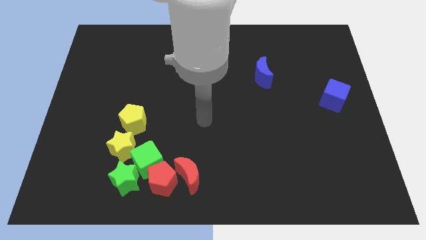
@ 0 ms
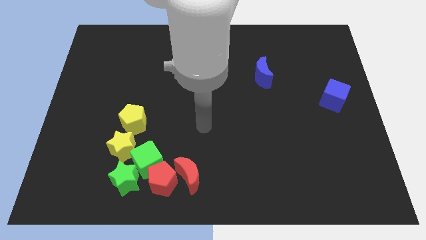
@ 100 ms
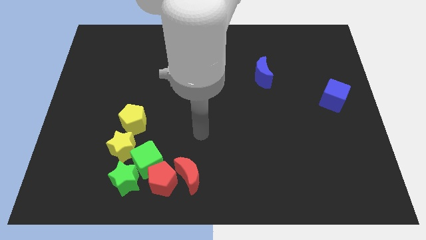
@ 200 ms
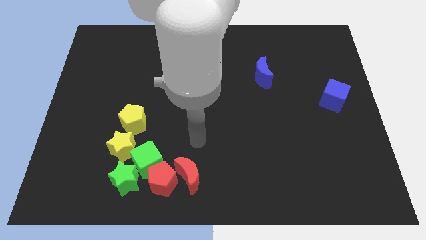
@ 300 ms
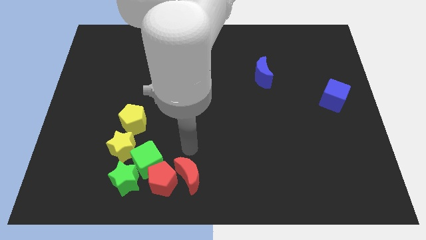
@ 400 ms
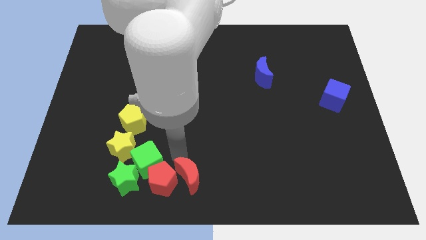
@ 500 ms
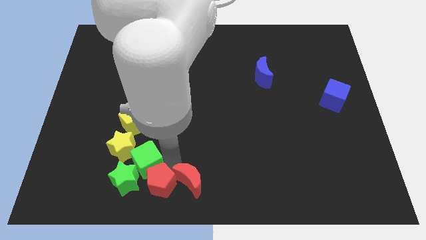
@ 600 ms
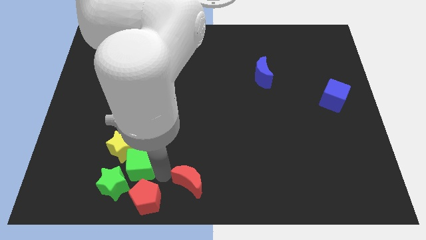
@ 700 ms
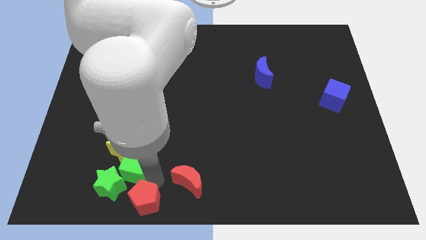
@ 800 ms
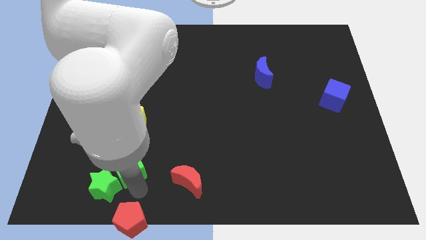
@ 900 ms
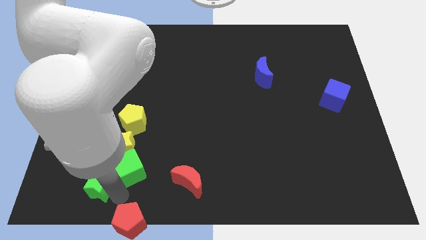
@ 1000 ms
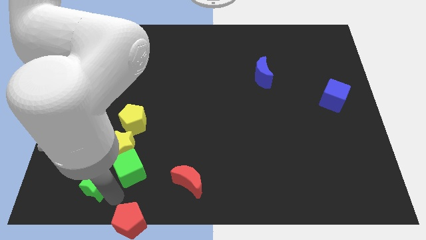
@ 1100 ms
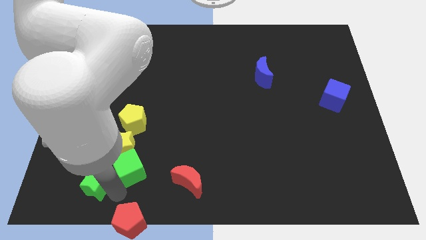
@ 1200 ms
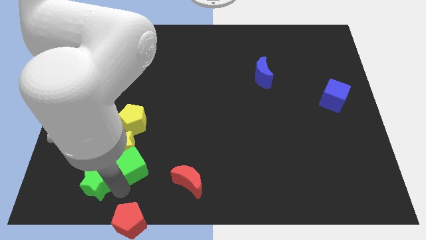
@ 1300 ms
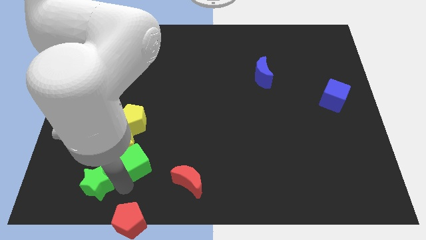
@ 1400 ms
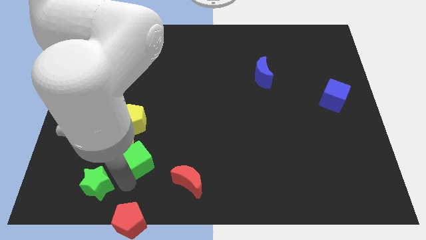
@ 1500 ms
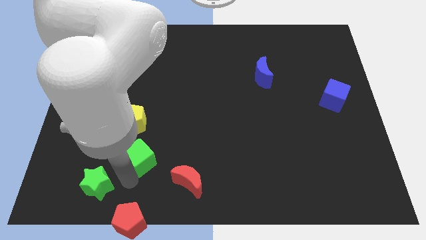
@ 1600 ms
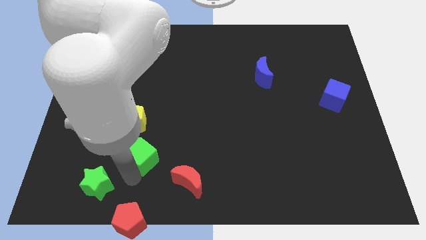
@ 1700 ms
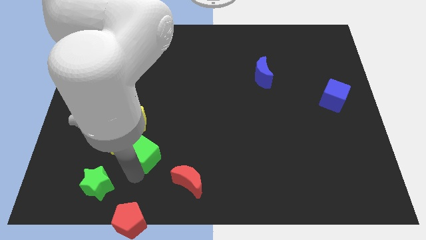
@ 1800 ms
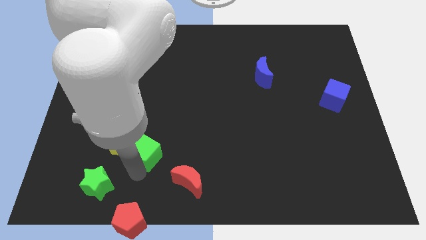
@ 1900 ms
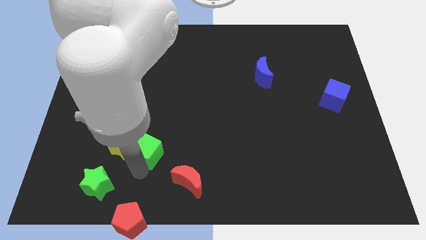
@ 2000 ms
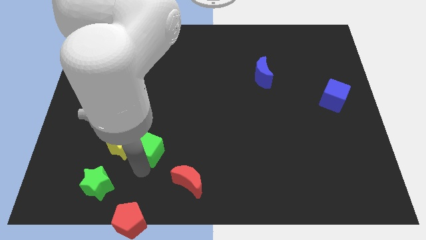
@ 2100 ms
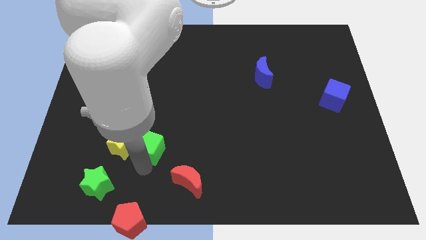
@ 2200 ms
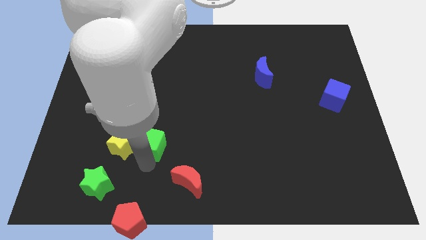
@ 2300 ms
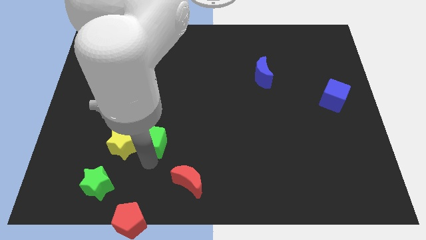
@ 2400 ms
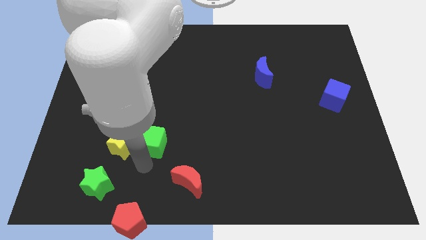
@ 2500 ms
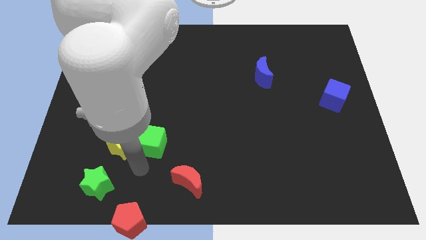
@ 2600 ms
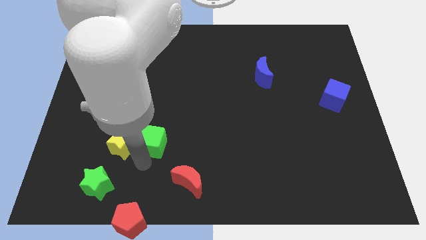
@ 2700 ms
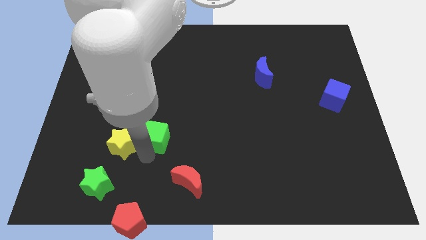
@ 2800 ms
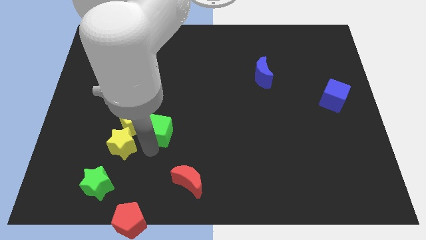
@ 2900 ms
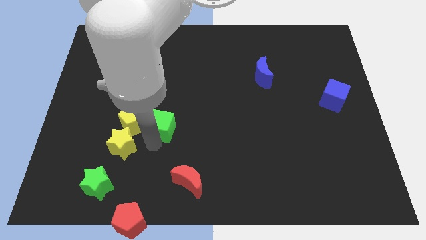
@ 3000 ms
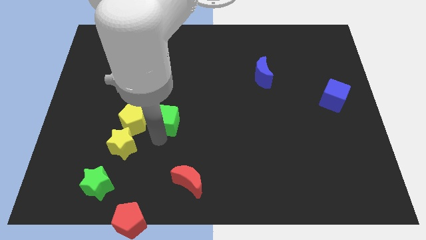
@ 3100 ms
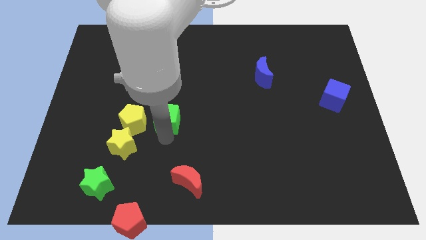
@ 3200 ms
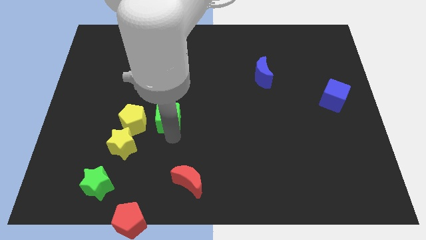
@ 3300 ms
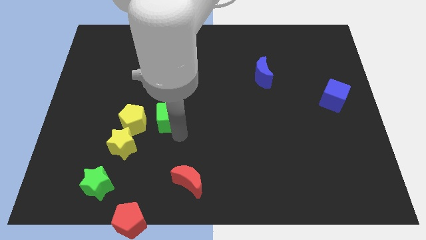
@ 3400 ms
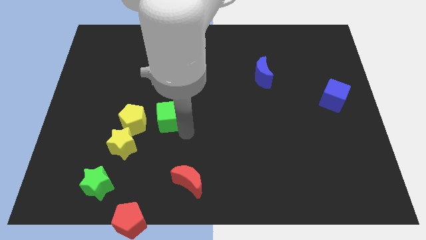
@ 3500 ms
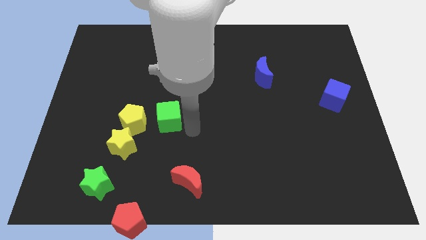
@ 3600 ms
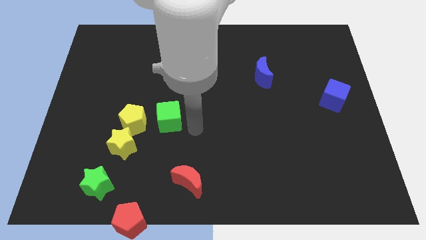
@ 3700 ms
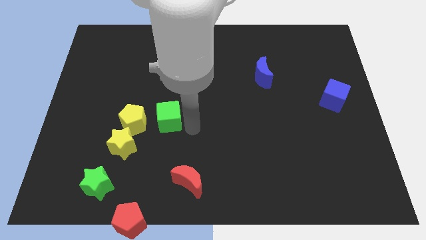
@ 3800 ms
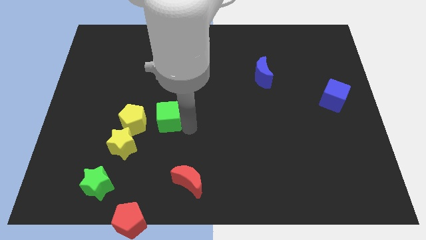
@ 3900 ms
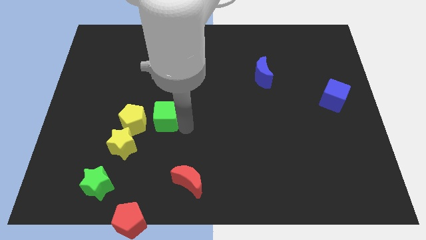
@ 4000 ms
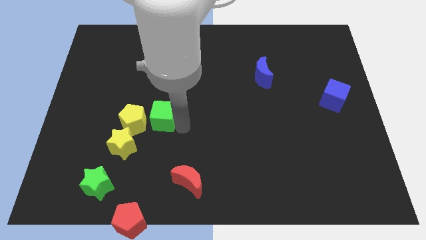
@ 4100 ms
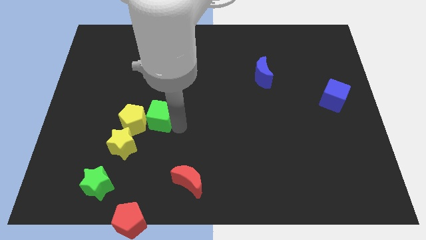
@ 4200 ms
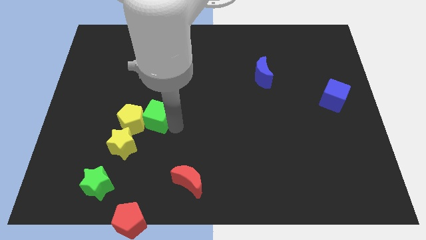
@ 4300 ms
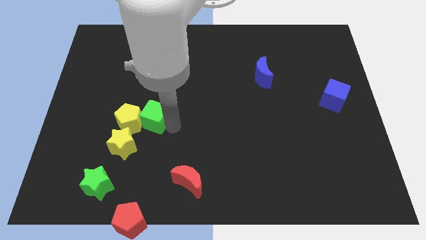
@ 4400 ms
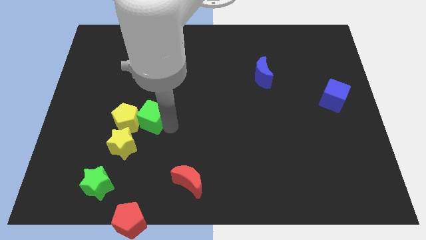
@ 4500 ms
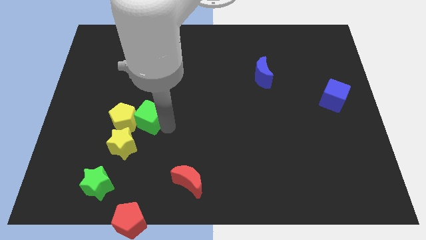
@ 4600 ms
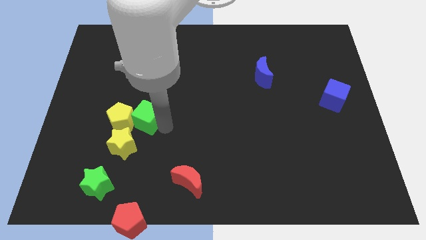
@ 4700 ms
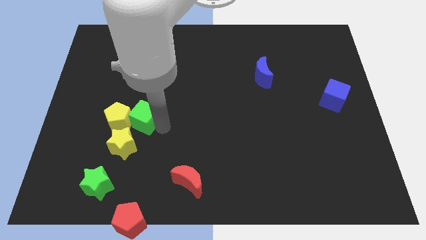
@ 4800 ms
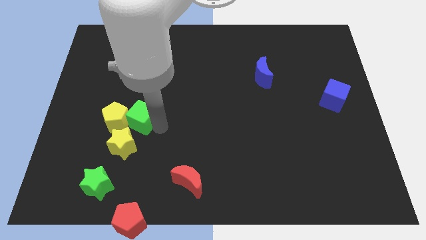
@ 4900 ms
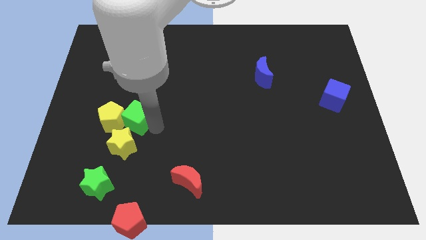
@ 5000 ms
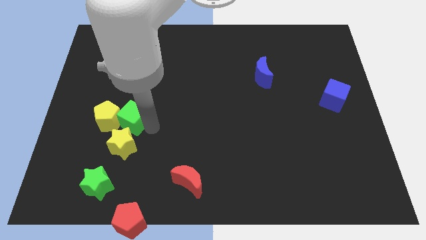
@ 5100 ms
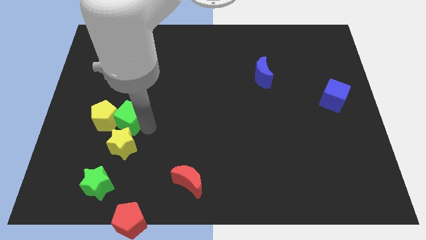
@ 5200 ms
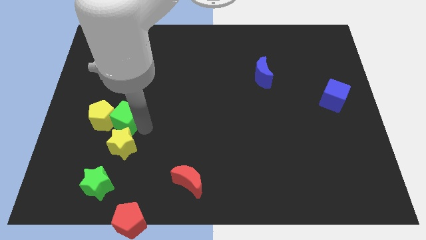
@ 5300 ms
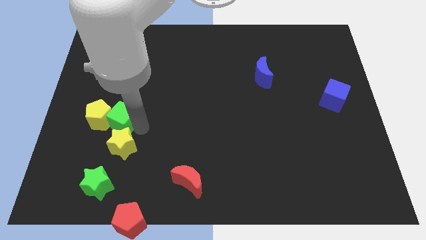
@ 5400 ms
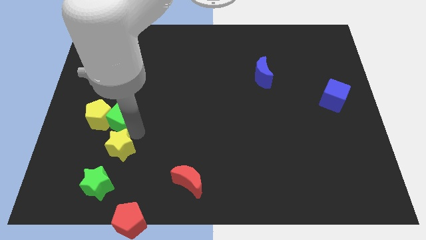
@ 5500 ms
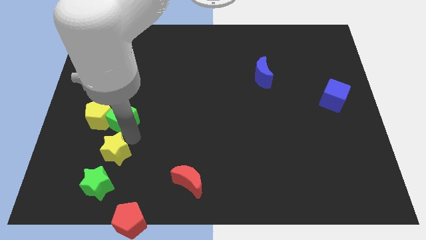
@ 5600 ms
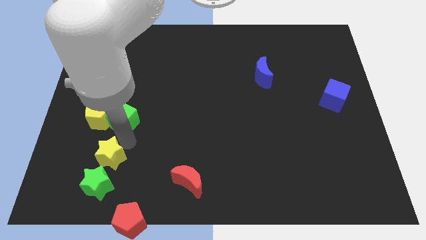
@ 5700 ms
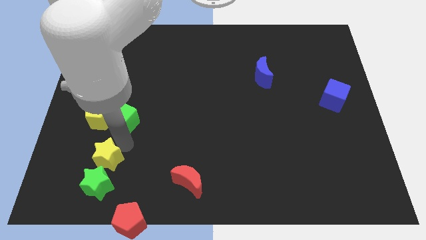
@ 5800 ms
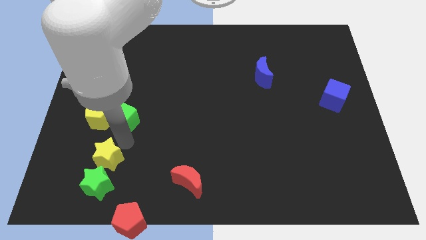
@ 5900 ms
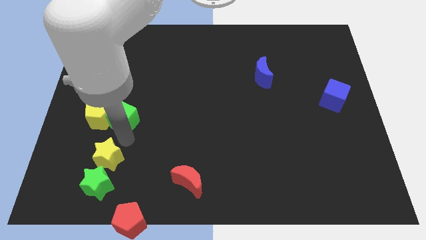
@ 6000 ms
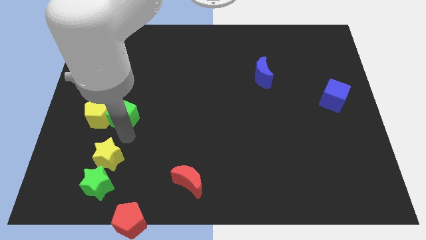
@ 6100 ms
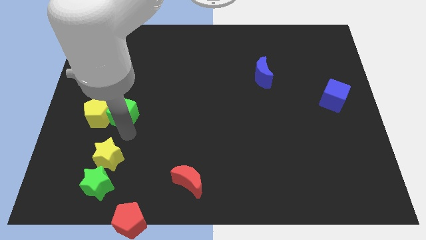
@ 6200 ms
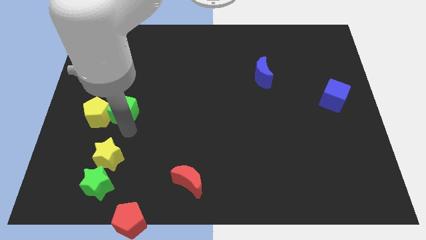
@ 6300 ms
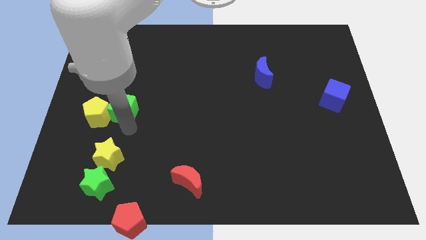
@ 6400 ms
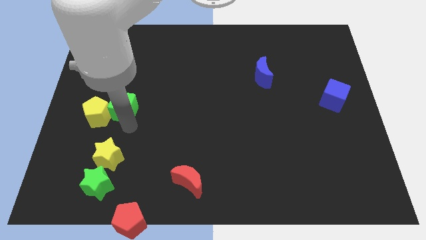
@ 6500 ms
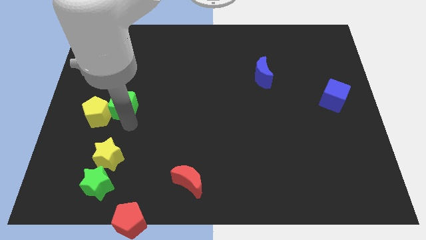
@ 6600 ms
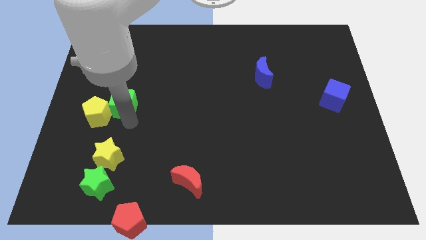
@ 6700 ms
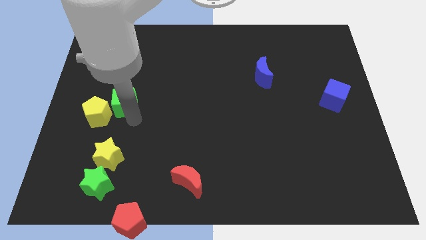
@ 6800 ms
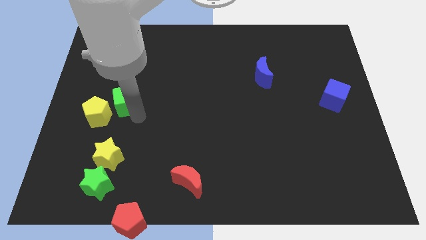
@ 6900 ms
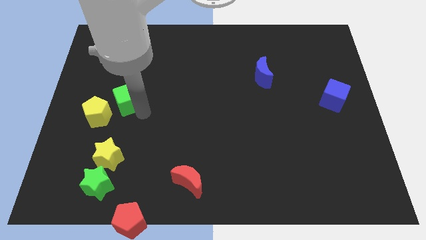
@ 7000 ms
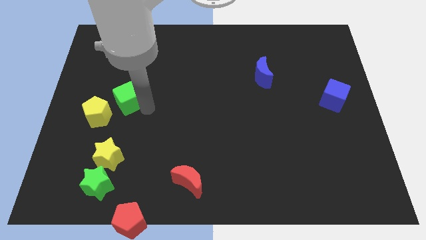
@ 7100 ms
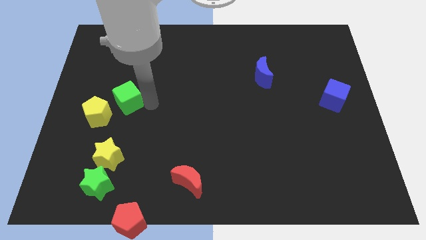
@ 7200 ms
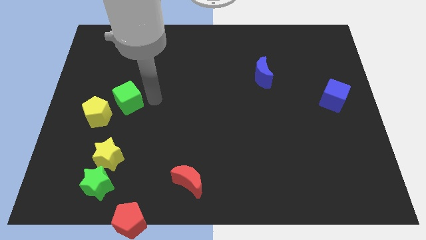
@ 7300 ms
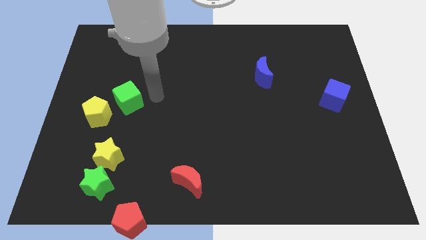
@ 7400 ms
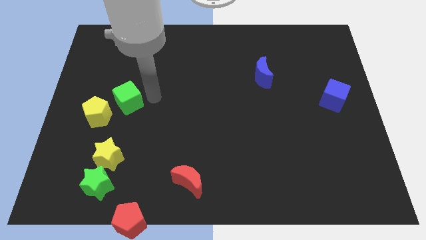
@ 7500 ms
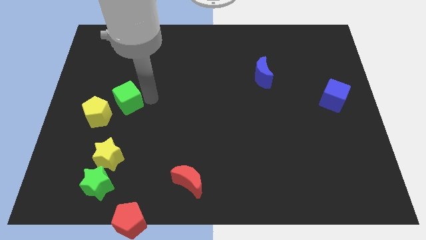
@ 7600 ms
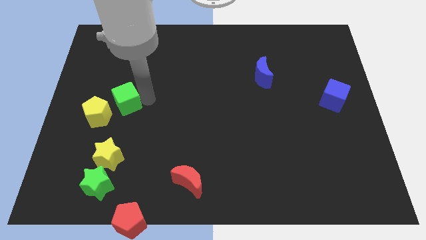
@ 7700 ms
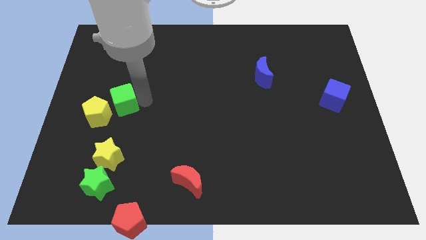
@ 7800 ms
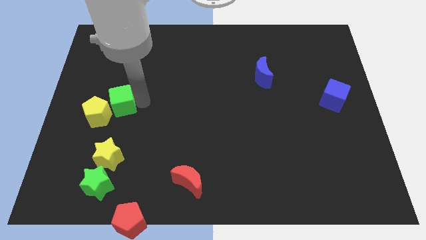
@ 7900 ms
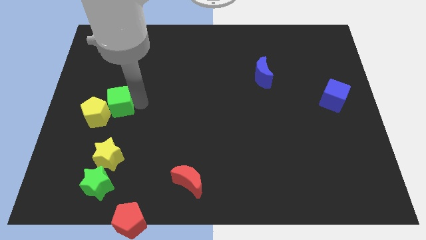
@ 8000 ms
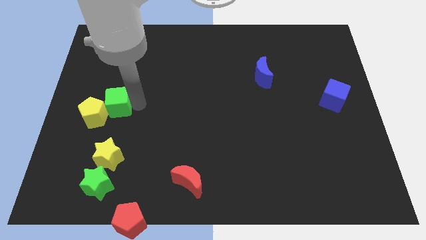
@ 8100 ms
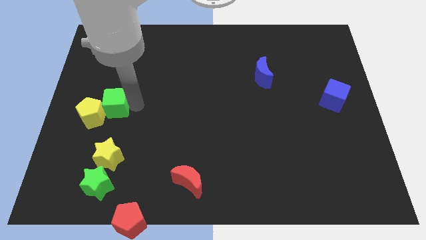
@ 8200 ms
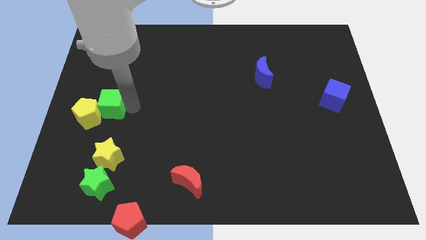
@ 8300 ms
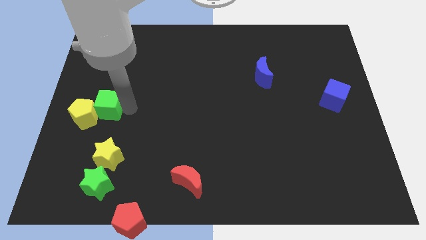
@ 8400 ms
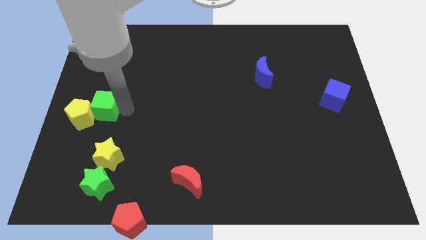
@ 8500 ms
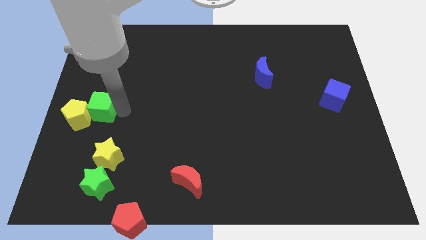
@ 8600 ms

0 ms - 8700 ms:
slide the green cube to the center left
